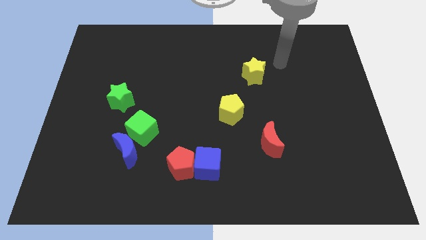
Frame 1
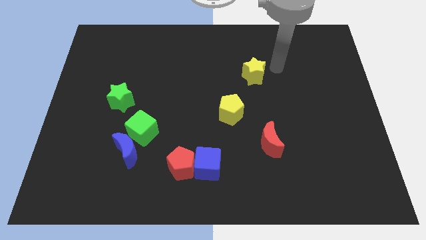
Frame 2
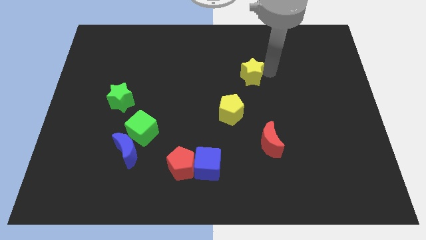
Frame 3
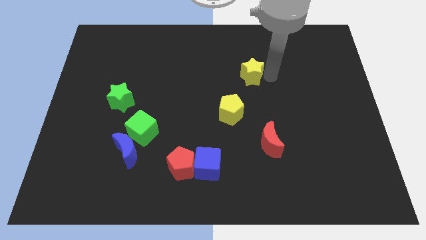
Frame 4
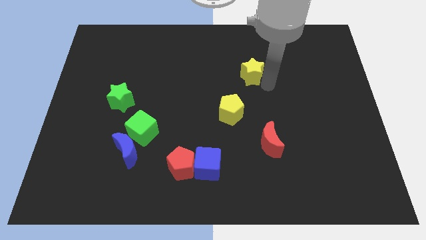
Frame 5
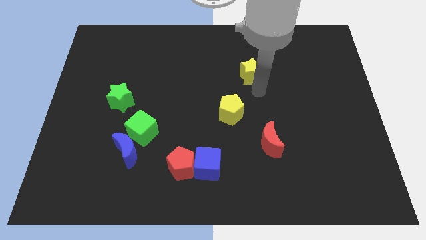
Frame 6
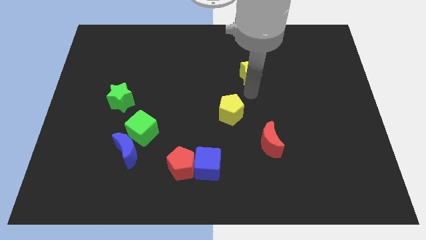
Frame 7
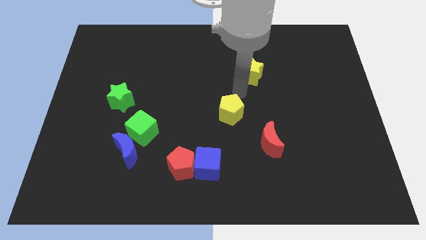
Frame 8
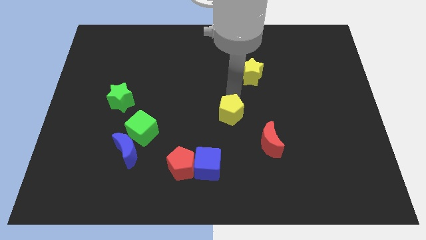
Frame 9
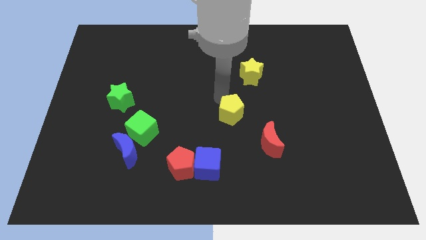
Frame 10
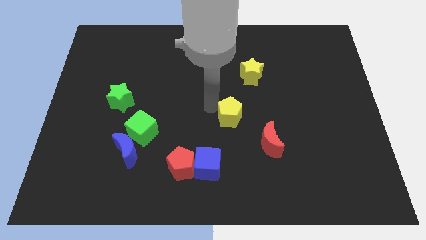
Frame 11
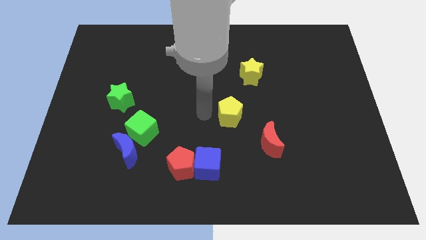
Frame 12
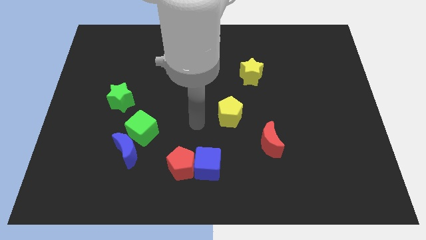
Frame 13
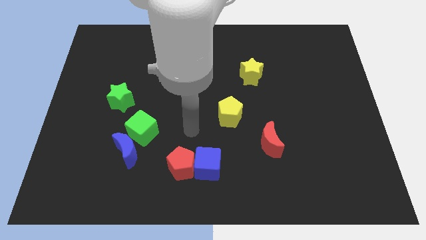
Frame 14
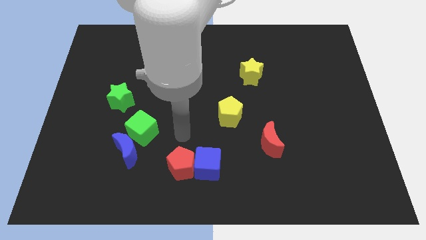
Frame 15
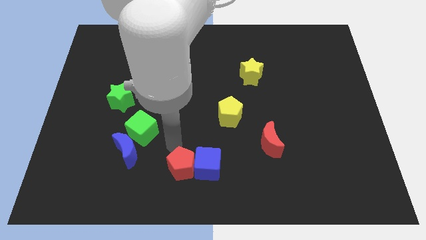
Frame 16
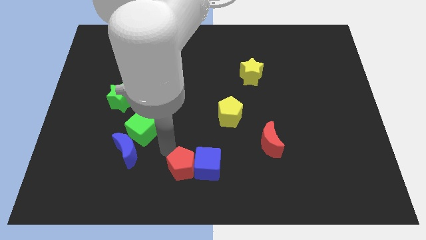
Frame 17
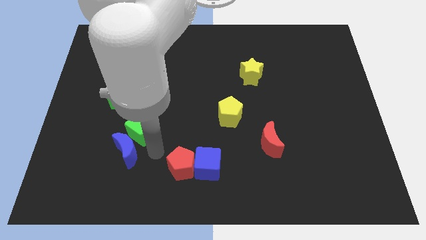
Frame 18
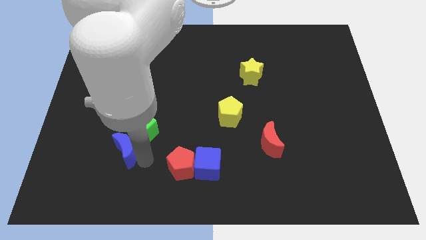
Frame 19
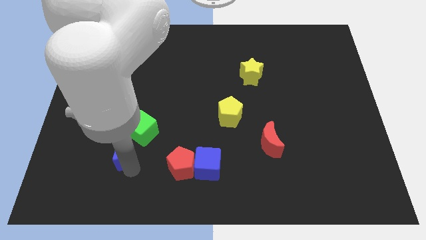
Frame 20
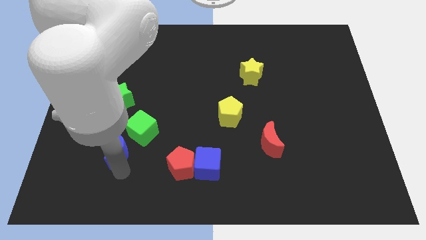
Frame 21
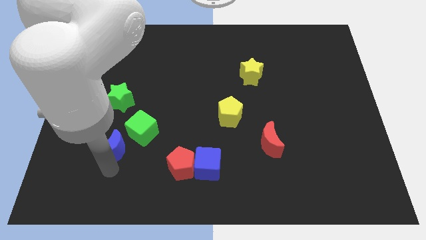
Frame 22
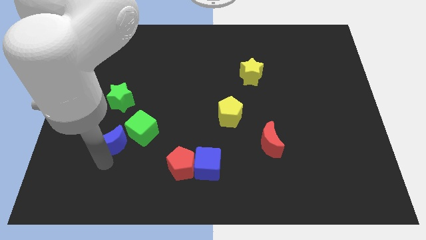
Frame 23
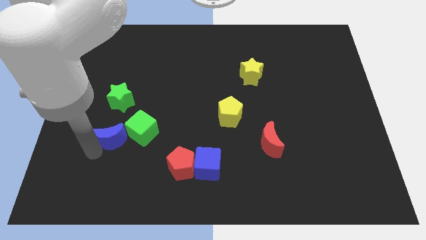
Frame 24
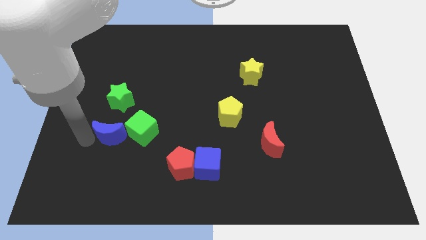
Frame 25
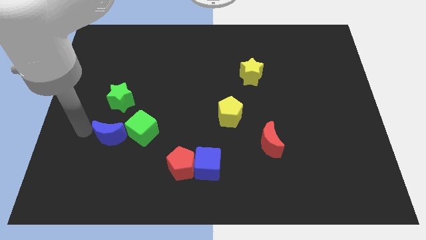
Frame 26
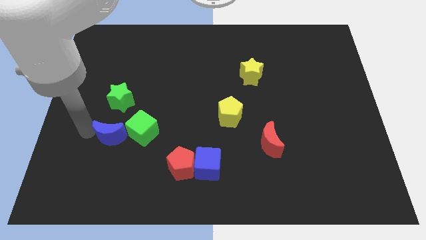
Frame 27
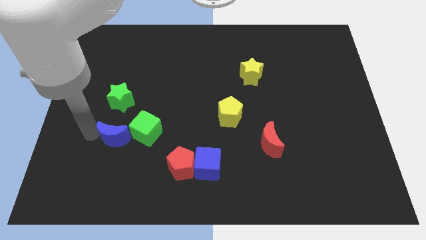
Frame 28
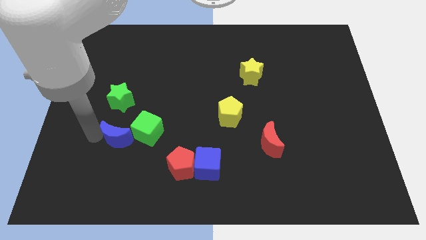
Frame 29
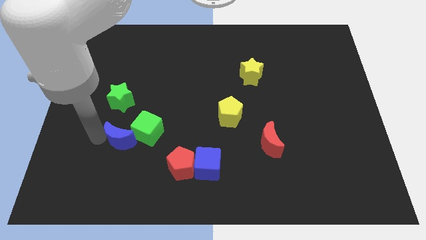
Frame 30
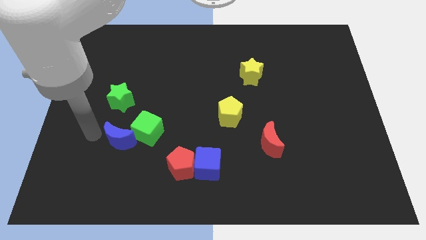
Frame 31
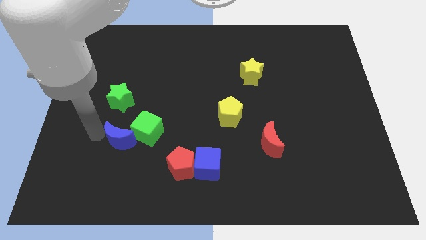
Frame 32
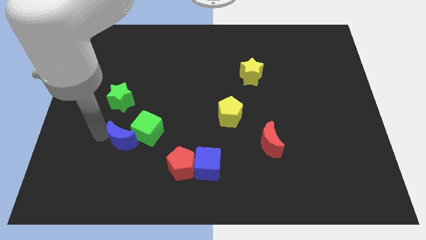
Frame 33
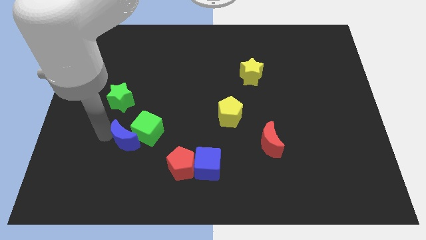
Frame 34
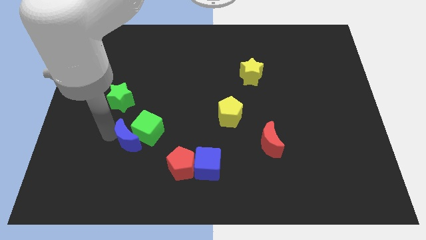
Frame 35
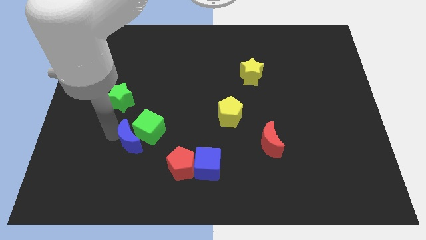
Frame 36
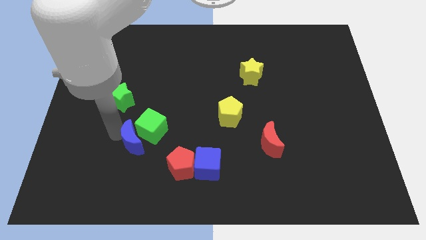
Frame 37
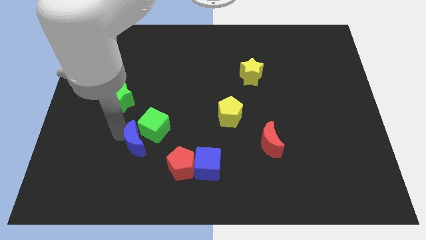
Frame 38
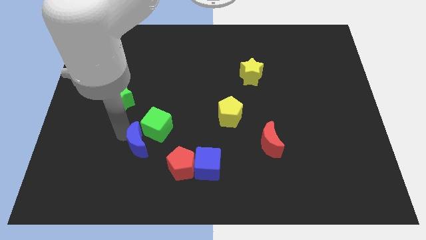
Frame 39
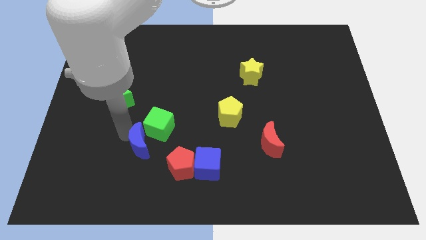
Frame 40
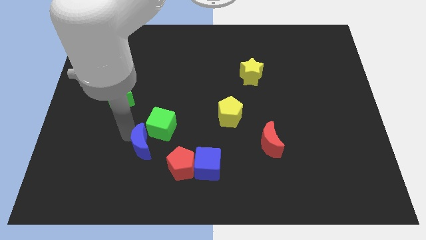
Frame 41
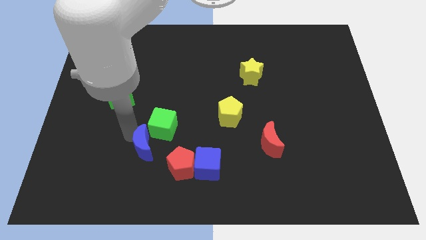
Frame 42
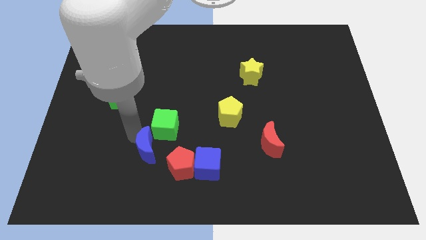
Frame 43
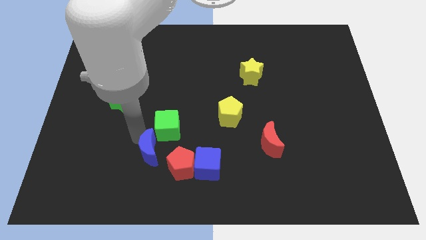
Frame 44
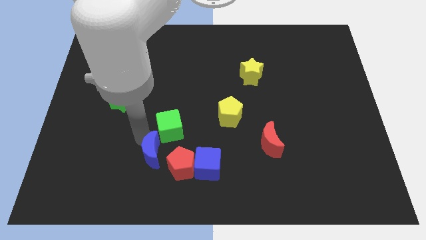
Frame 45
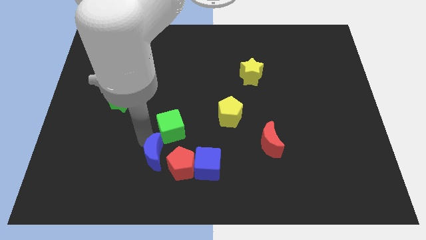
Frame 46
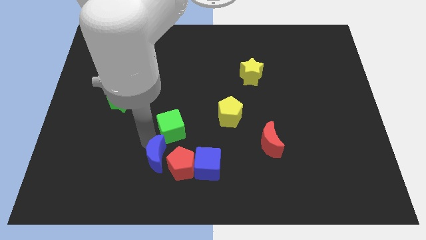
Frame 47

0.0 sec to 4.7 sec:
put the blue moon next to the red pentagon

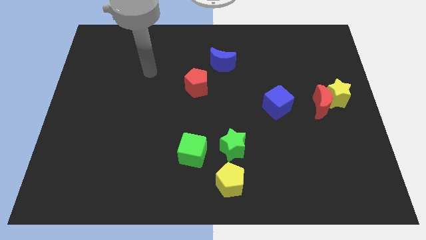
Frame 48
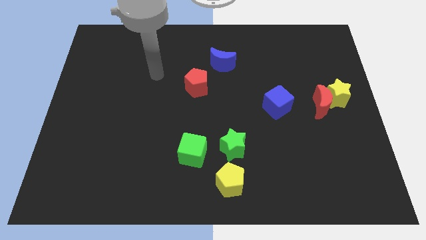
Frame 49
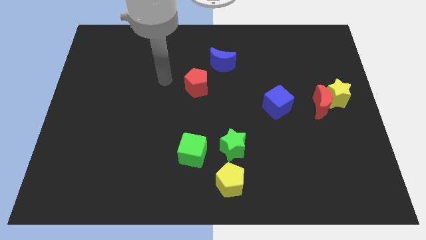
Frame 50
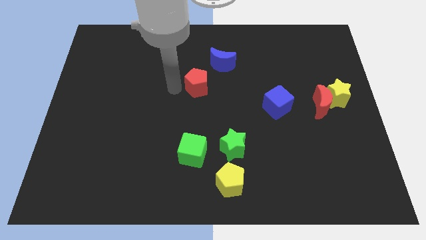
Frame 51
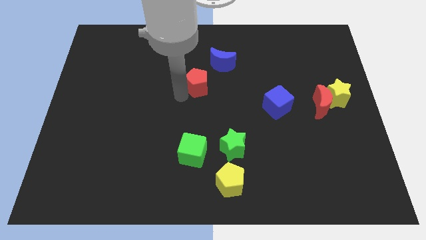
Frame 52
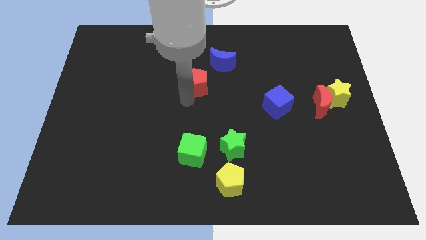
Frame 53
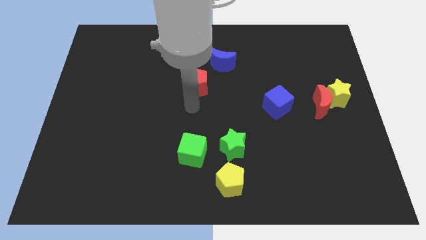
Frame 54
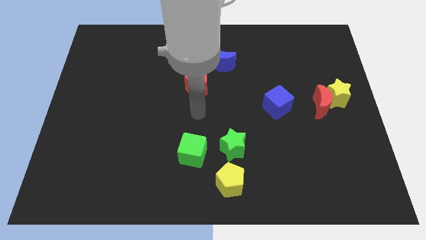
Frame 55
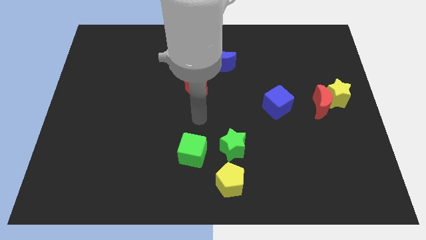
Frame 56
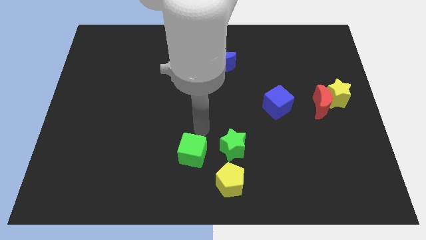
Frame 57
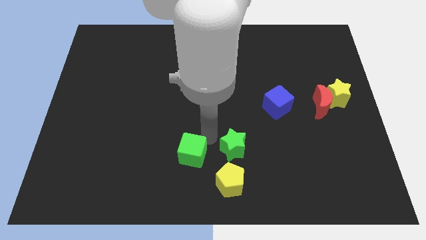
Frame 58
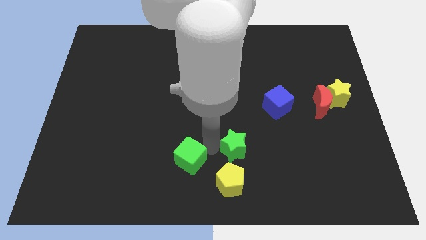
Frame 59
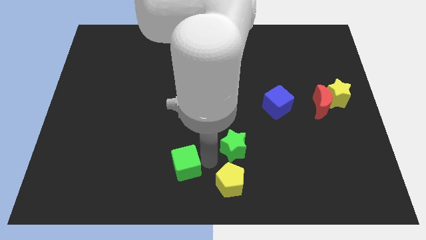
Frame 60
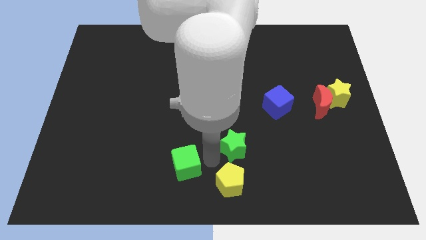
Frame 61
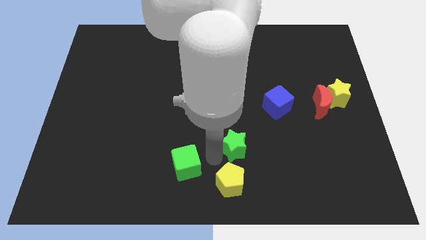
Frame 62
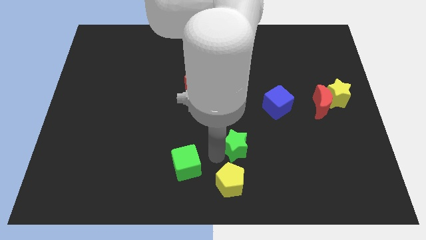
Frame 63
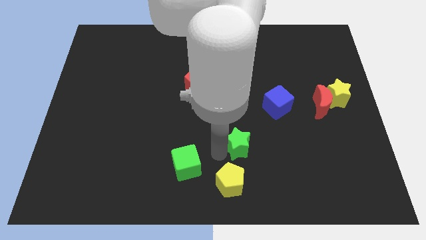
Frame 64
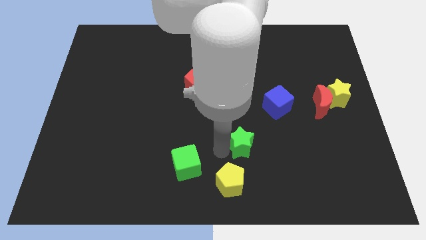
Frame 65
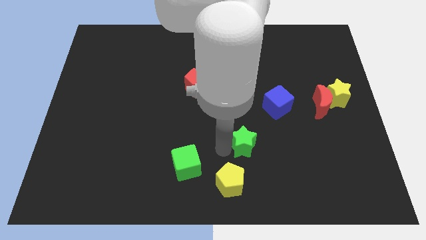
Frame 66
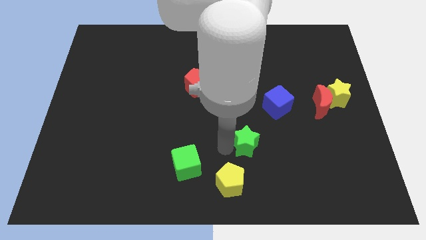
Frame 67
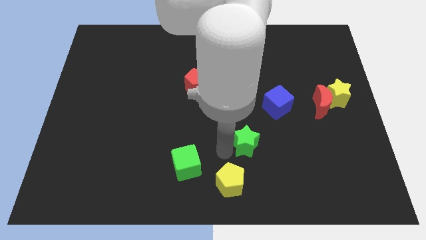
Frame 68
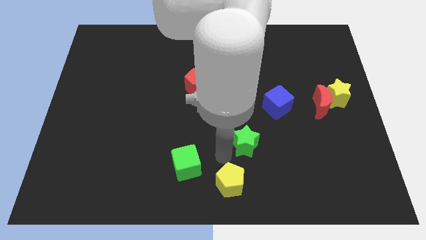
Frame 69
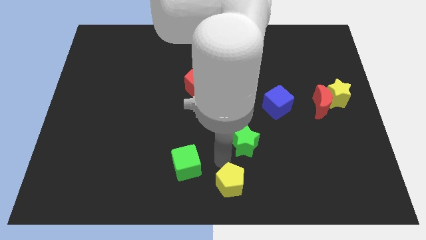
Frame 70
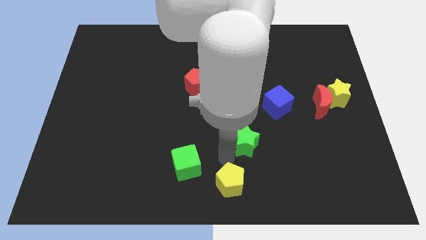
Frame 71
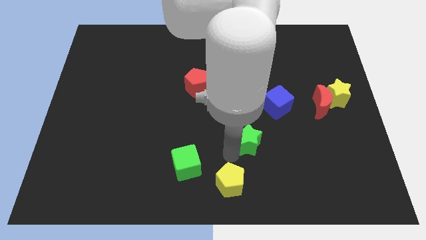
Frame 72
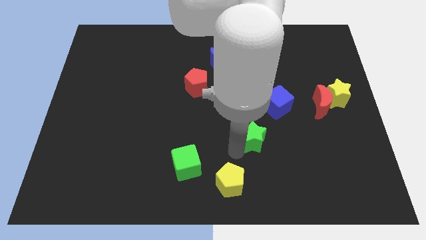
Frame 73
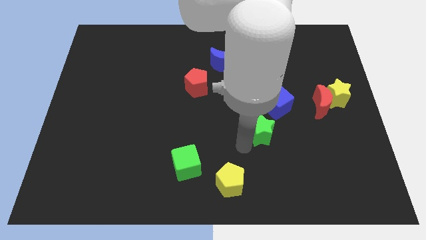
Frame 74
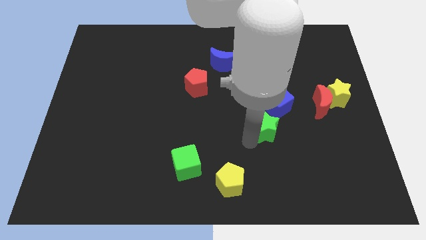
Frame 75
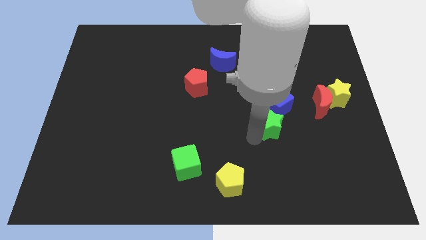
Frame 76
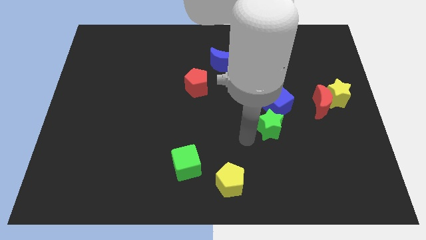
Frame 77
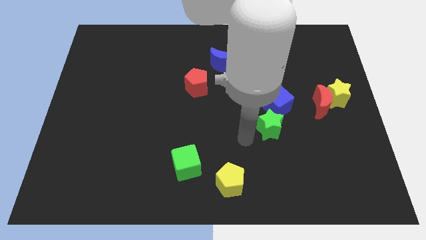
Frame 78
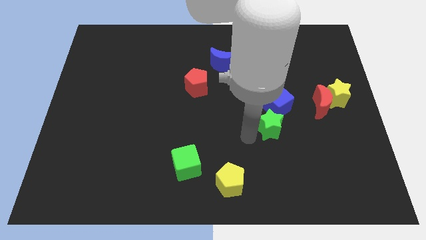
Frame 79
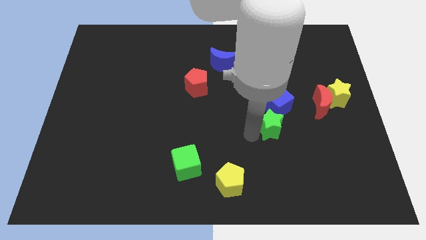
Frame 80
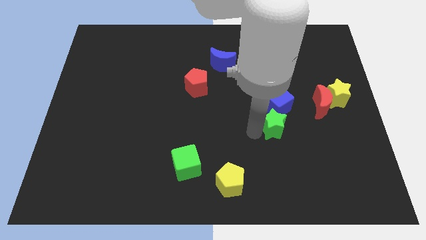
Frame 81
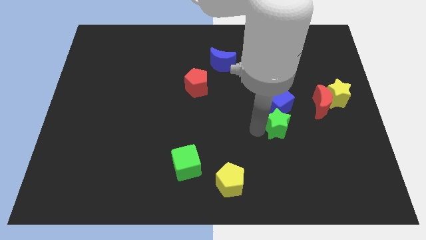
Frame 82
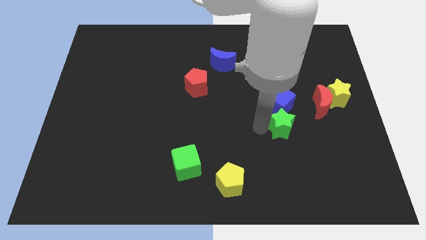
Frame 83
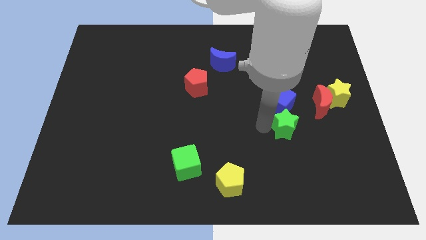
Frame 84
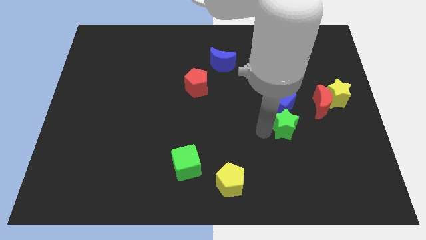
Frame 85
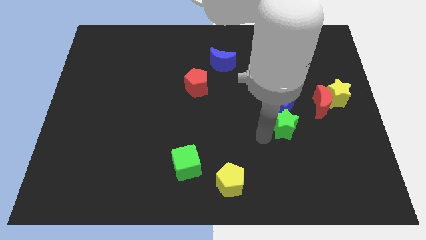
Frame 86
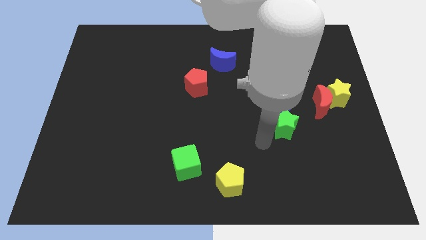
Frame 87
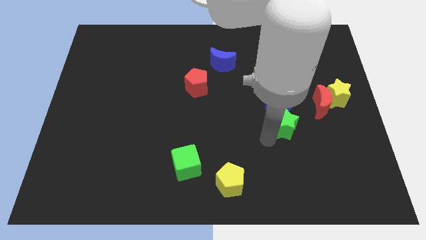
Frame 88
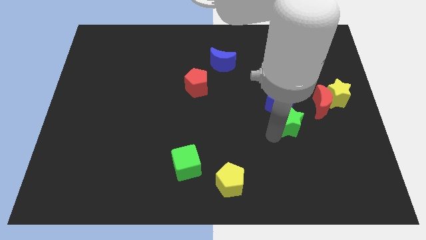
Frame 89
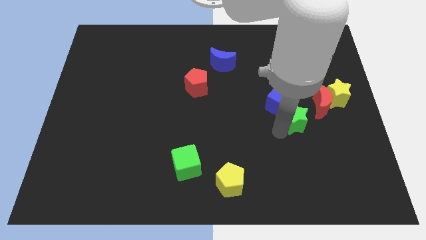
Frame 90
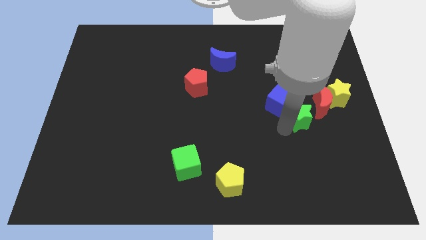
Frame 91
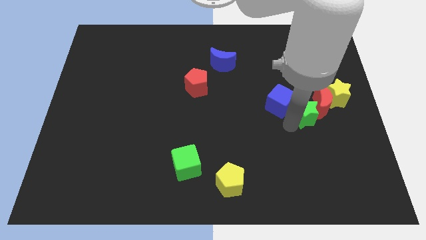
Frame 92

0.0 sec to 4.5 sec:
move the green star next to the red moon
